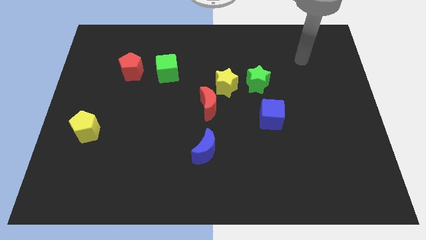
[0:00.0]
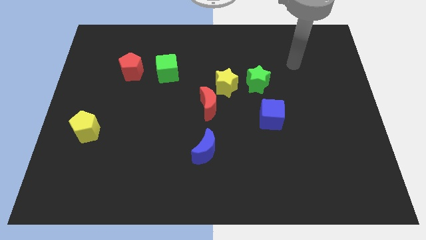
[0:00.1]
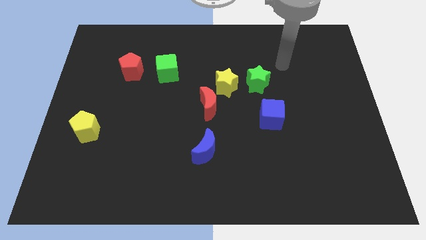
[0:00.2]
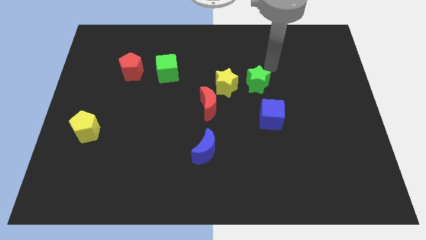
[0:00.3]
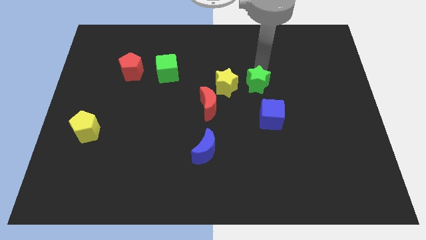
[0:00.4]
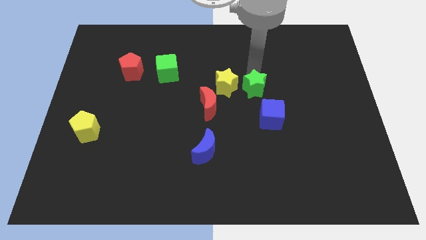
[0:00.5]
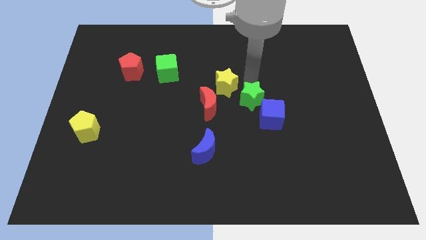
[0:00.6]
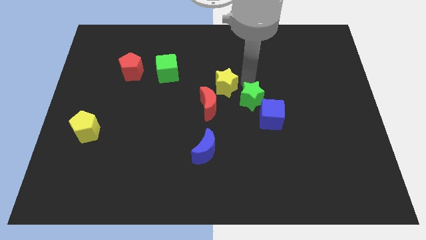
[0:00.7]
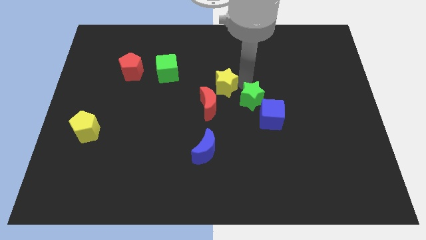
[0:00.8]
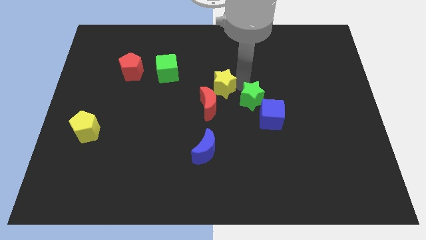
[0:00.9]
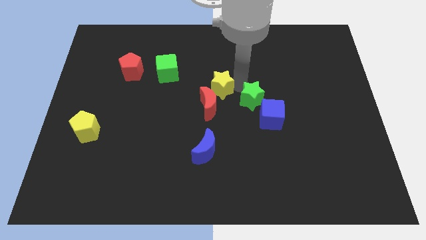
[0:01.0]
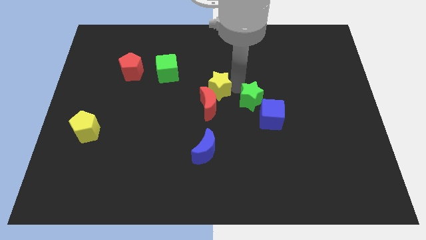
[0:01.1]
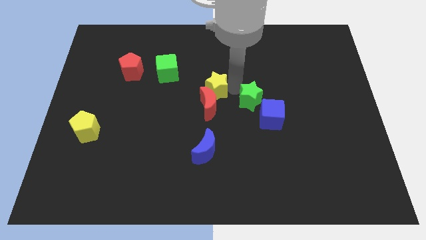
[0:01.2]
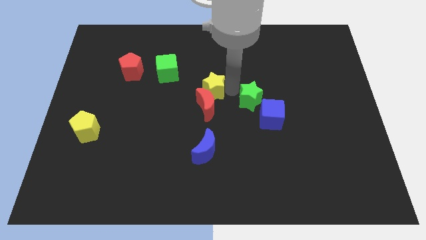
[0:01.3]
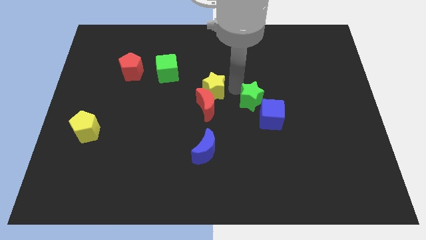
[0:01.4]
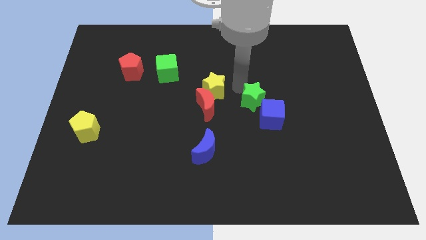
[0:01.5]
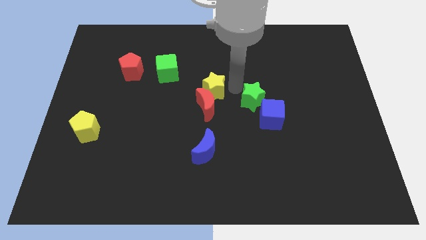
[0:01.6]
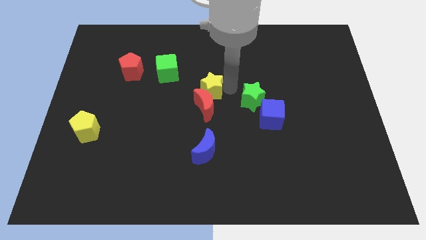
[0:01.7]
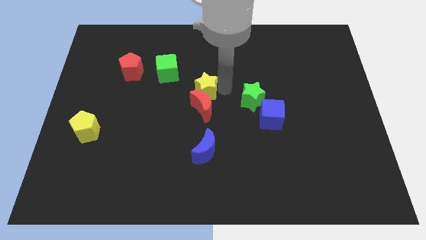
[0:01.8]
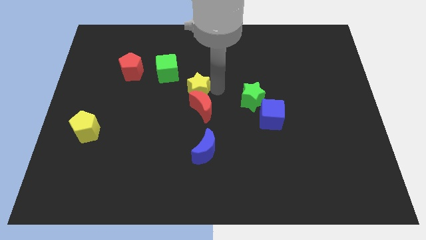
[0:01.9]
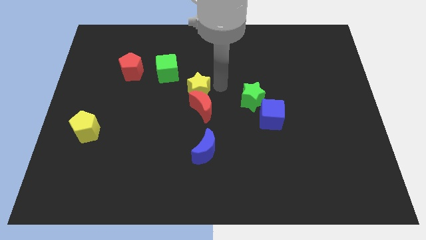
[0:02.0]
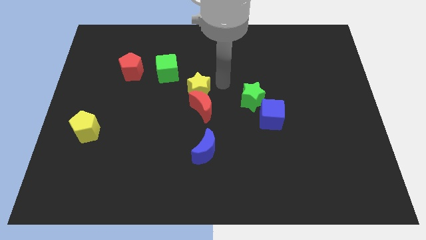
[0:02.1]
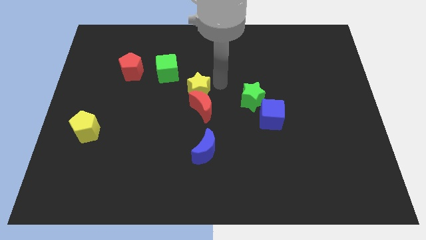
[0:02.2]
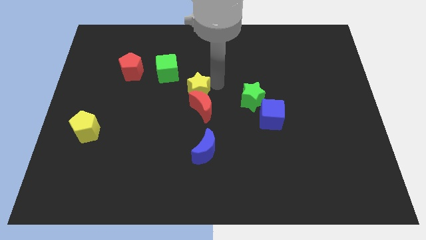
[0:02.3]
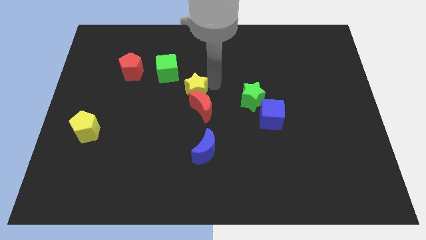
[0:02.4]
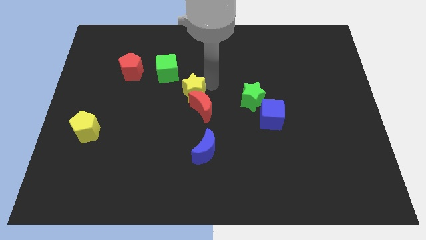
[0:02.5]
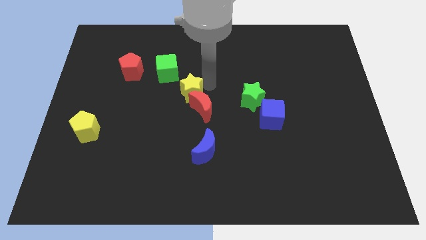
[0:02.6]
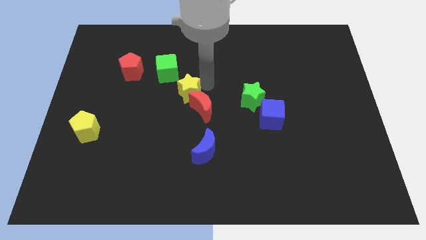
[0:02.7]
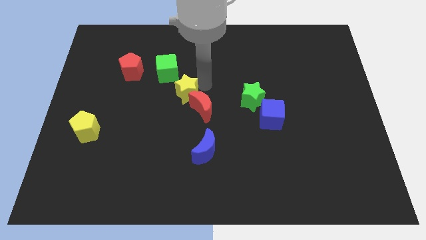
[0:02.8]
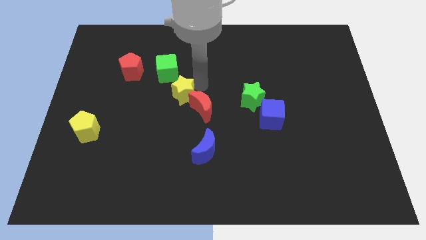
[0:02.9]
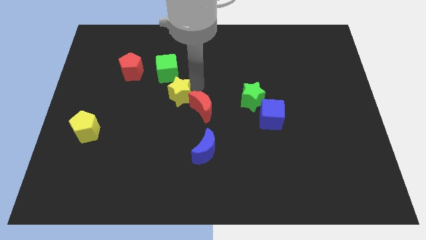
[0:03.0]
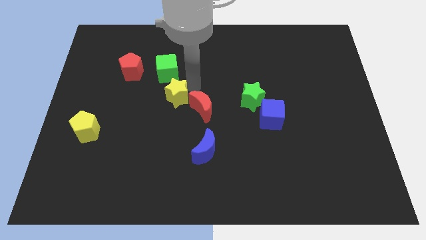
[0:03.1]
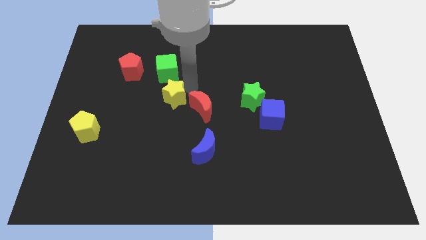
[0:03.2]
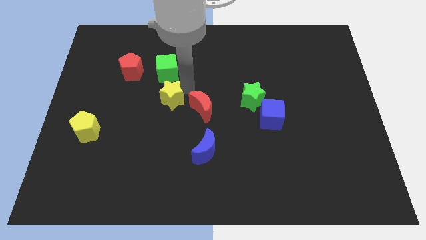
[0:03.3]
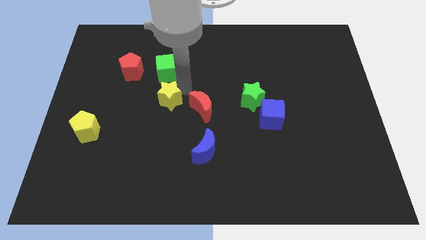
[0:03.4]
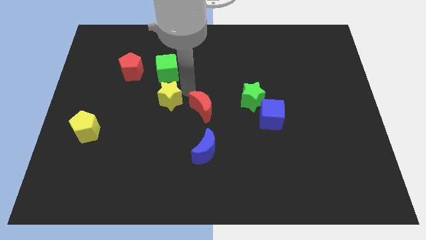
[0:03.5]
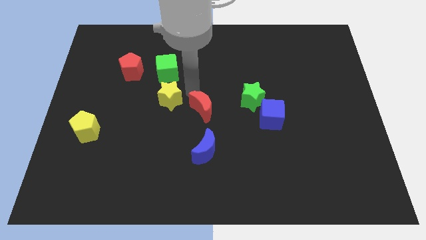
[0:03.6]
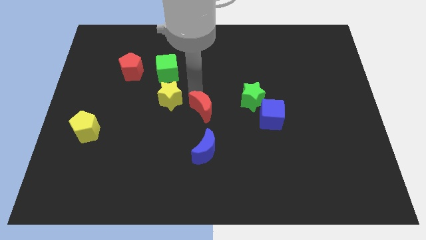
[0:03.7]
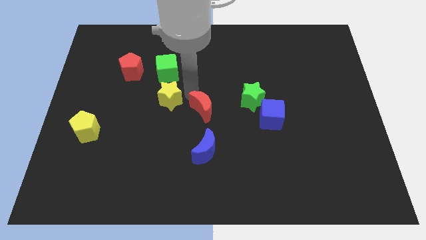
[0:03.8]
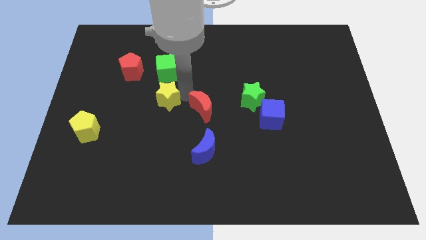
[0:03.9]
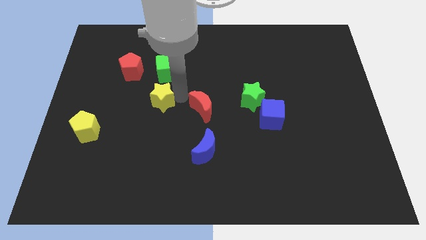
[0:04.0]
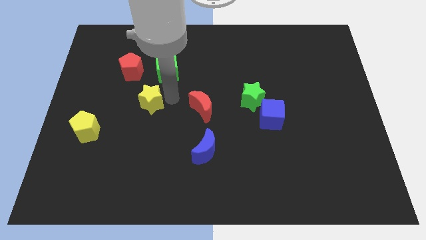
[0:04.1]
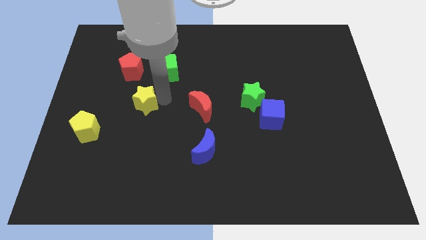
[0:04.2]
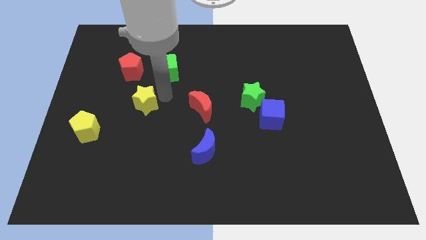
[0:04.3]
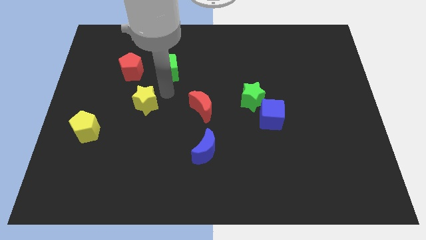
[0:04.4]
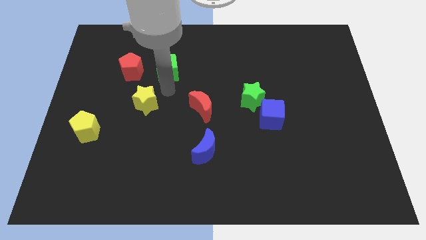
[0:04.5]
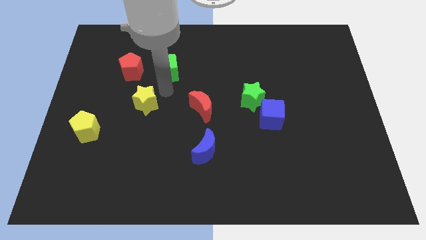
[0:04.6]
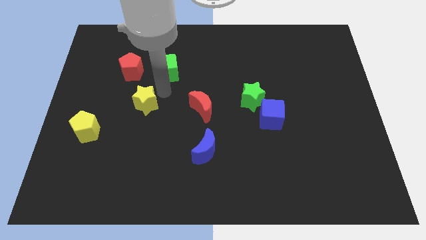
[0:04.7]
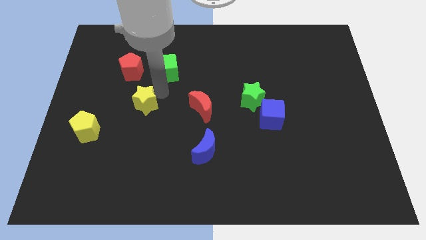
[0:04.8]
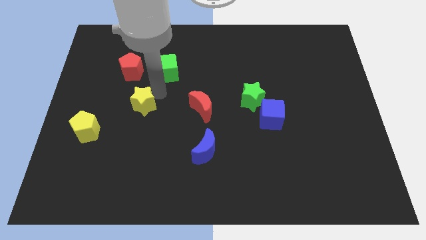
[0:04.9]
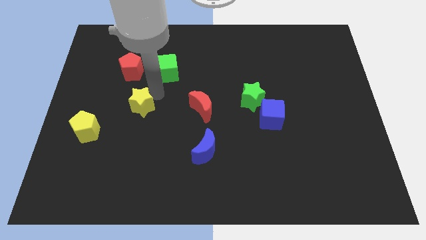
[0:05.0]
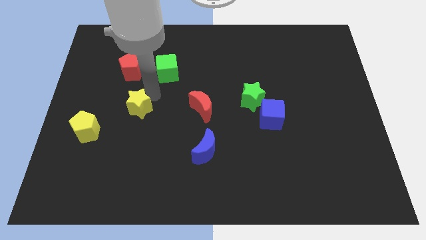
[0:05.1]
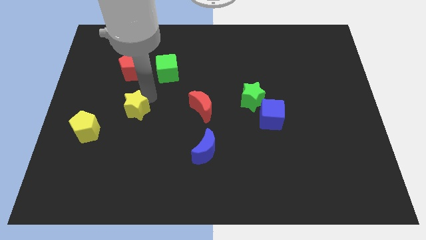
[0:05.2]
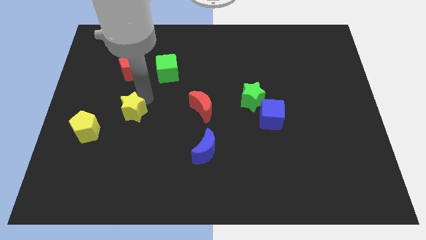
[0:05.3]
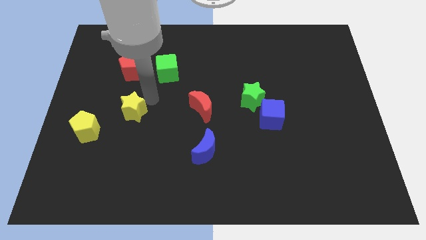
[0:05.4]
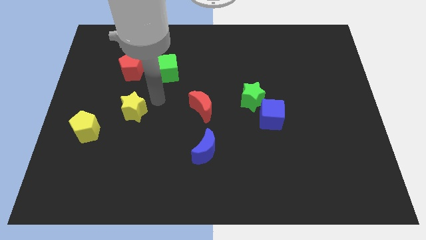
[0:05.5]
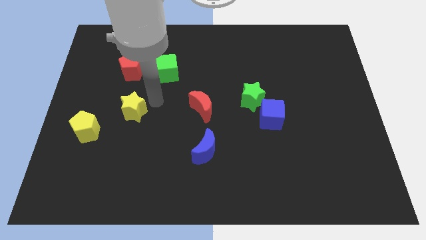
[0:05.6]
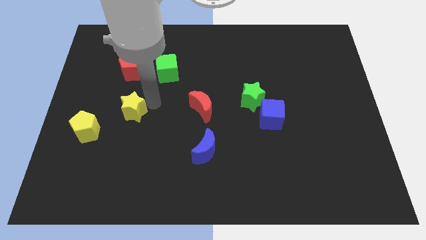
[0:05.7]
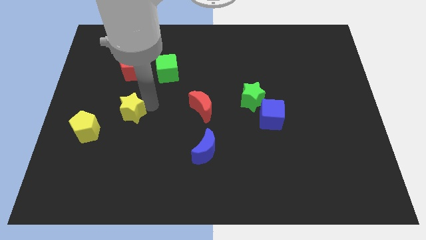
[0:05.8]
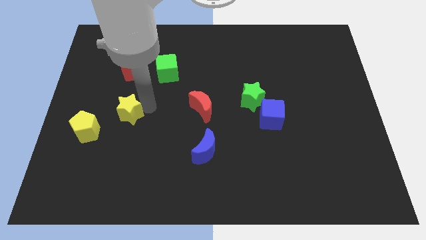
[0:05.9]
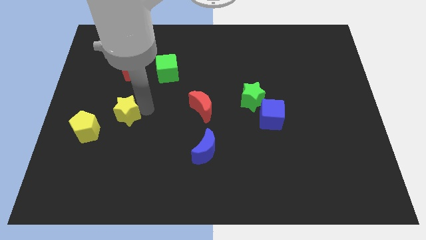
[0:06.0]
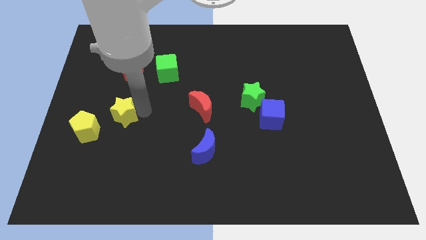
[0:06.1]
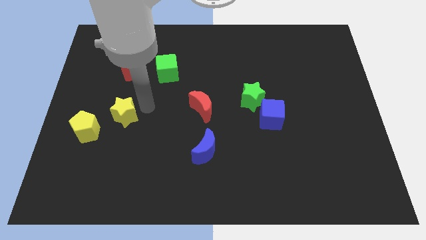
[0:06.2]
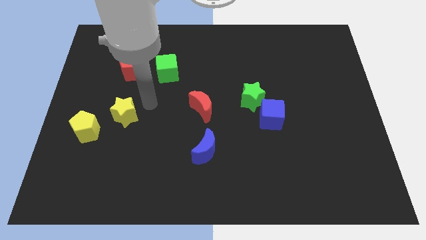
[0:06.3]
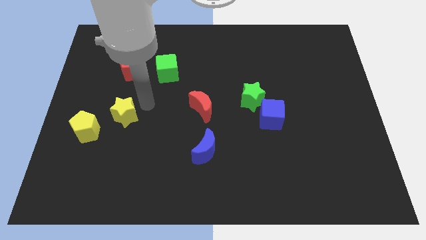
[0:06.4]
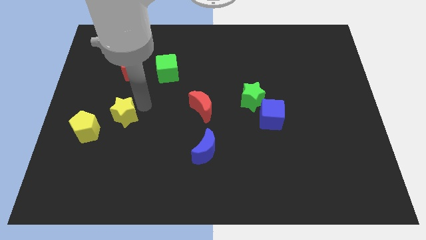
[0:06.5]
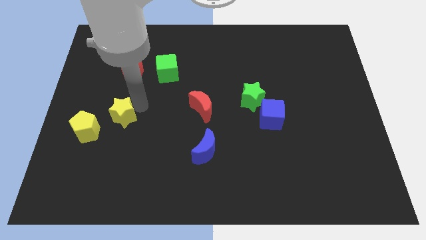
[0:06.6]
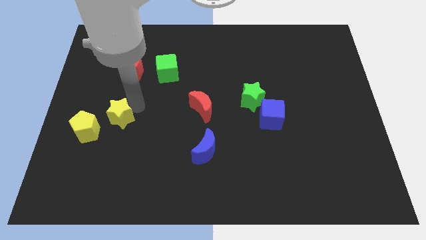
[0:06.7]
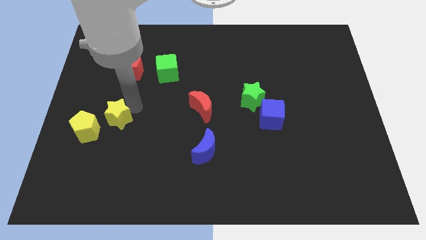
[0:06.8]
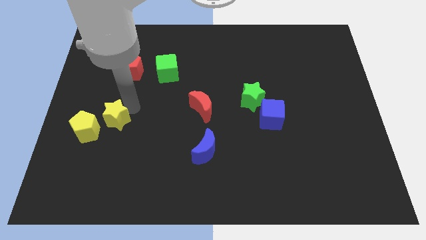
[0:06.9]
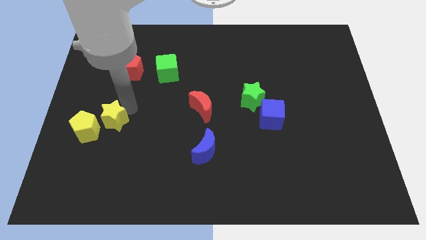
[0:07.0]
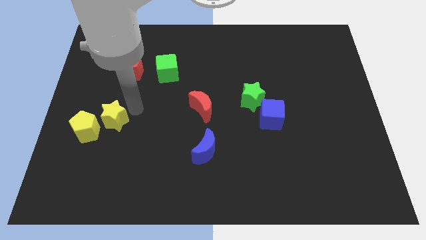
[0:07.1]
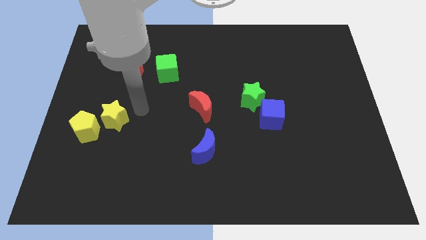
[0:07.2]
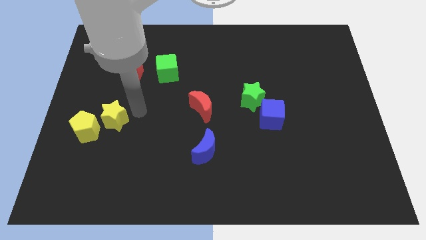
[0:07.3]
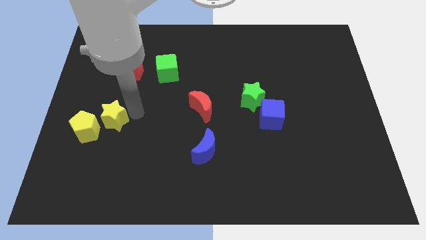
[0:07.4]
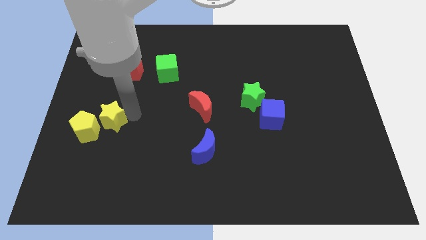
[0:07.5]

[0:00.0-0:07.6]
push the yellow star towards the yellow pentagon

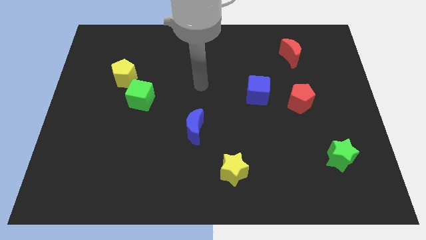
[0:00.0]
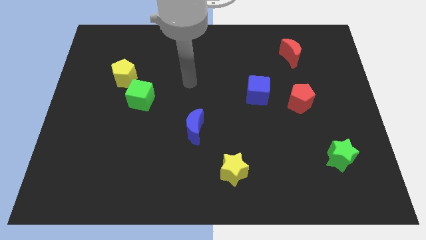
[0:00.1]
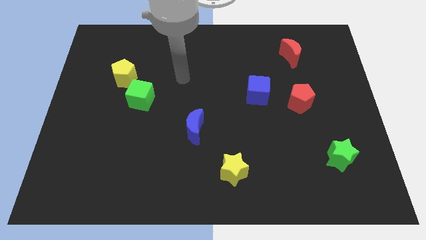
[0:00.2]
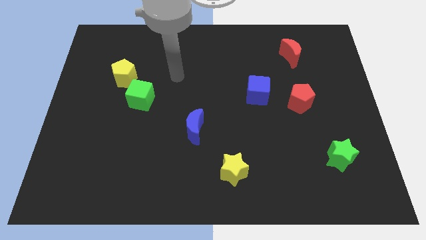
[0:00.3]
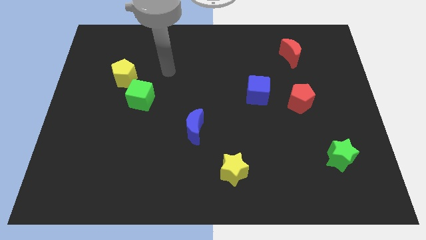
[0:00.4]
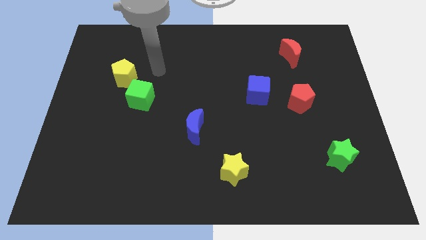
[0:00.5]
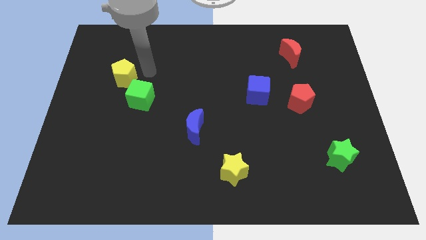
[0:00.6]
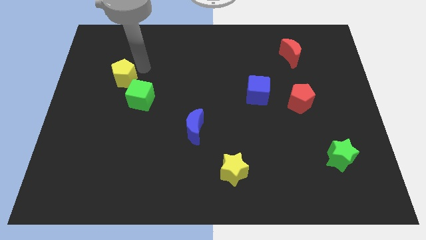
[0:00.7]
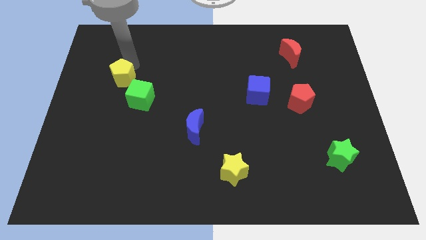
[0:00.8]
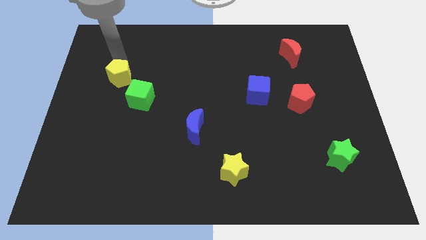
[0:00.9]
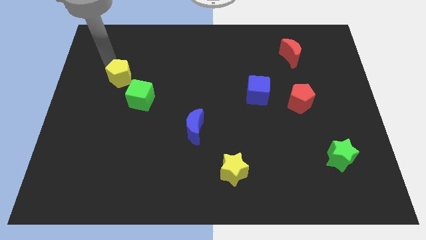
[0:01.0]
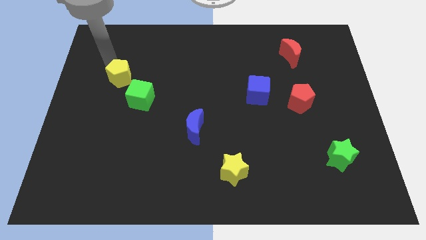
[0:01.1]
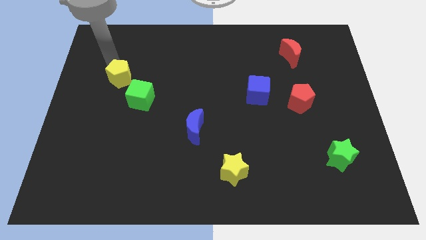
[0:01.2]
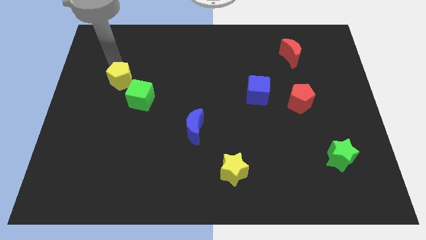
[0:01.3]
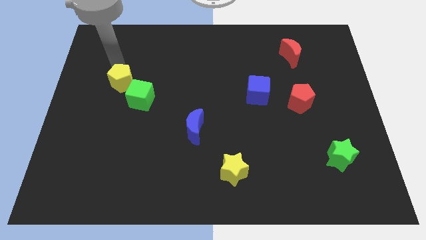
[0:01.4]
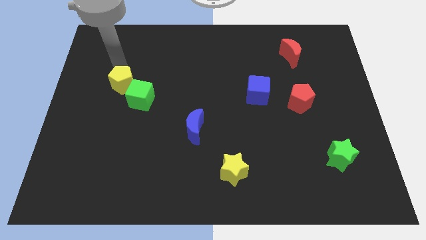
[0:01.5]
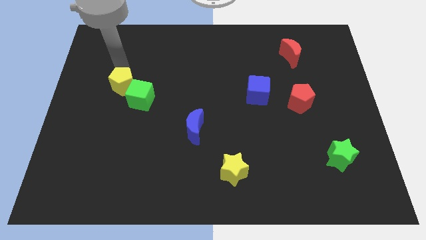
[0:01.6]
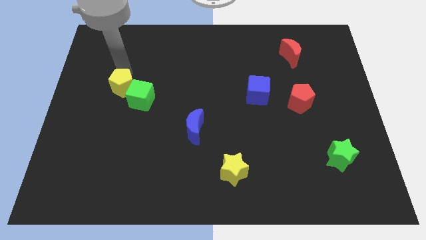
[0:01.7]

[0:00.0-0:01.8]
move the yellow pentagon towards the green cube
